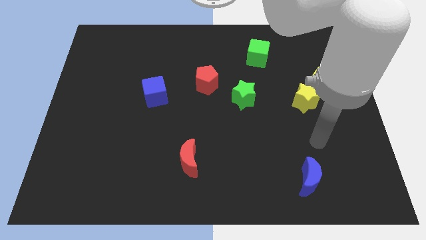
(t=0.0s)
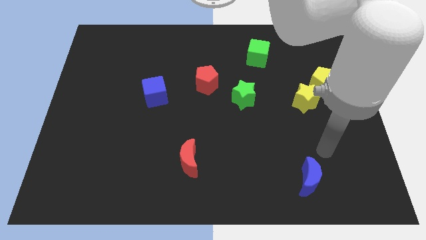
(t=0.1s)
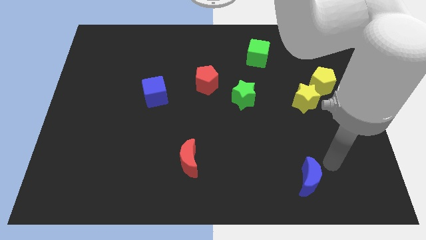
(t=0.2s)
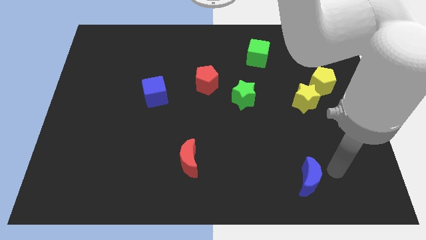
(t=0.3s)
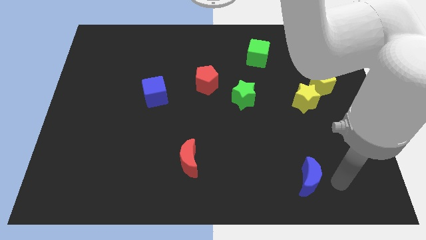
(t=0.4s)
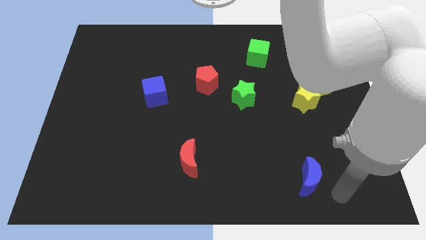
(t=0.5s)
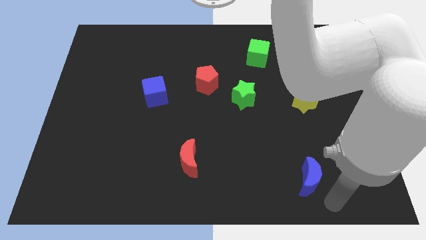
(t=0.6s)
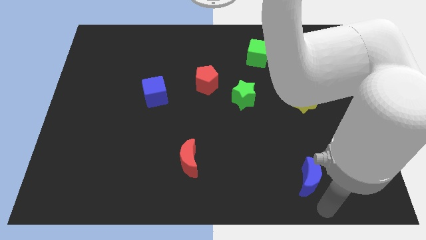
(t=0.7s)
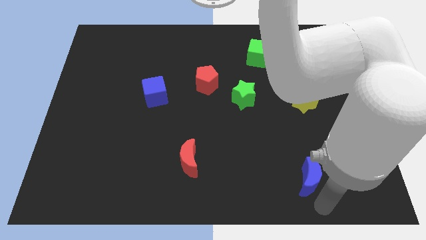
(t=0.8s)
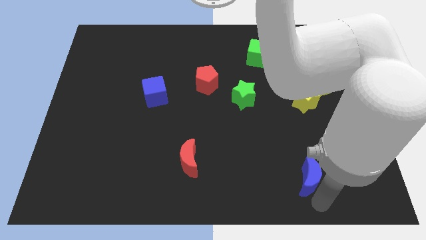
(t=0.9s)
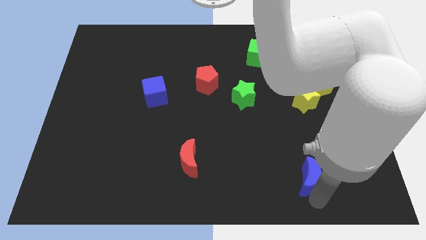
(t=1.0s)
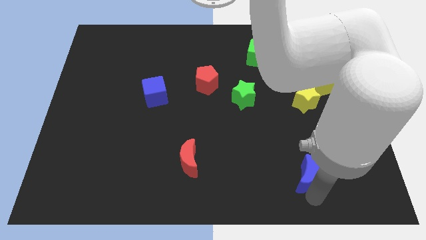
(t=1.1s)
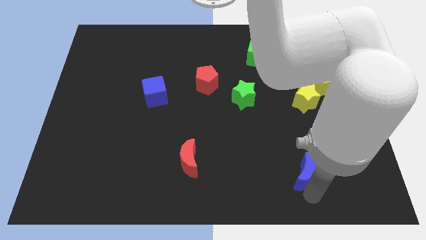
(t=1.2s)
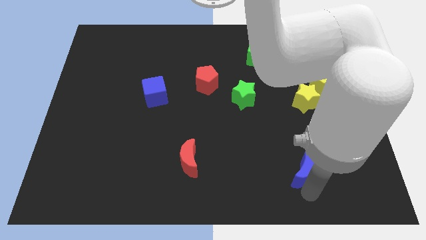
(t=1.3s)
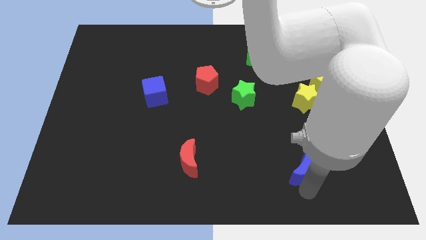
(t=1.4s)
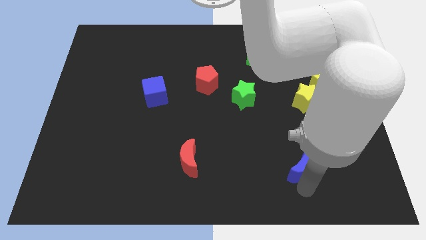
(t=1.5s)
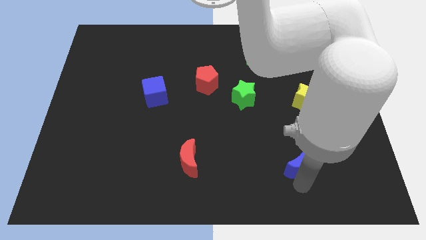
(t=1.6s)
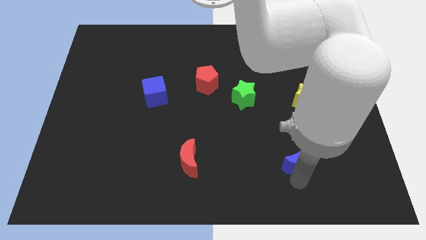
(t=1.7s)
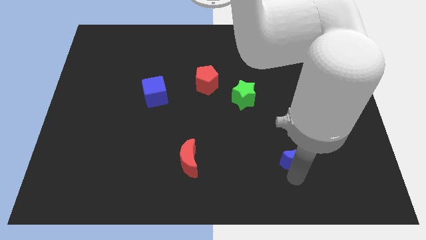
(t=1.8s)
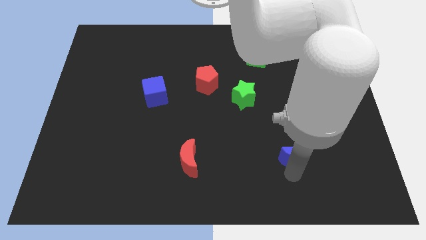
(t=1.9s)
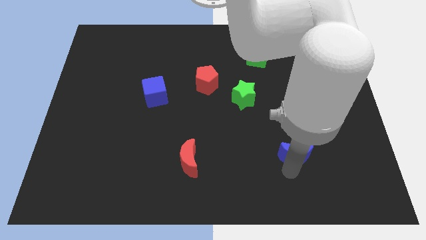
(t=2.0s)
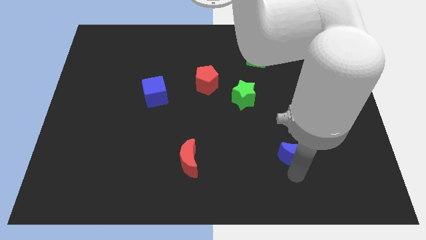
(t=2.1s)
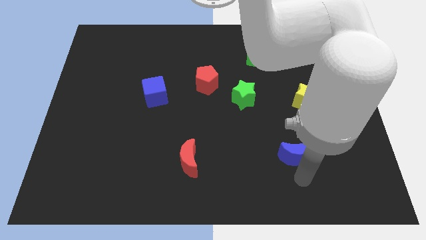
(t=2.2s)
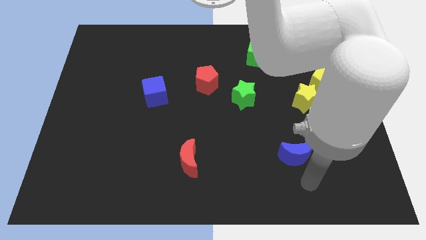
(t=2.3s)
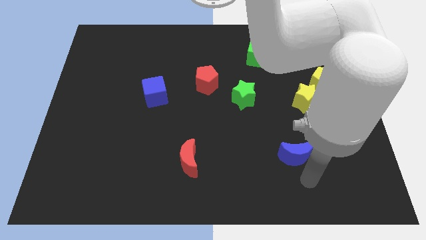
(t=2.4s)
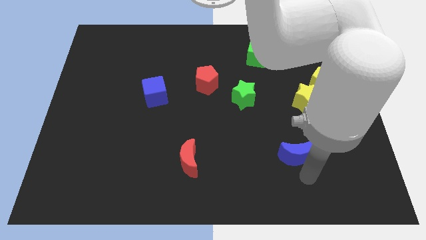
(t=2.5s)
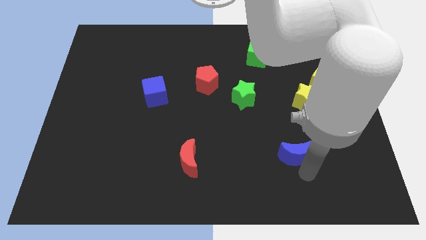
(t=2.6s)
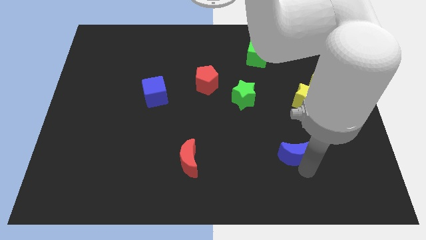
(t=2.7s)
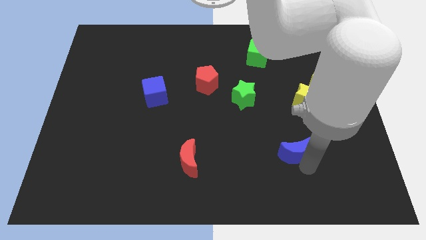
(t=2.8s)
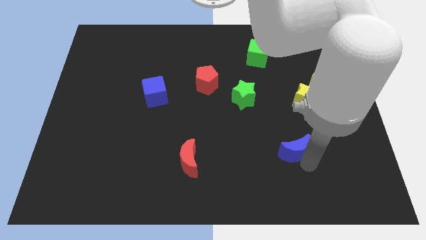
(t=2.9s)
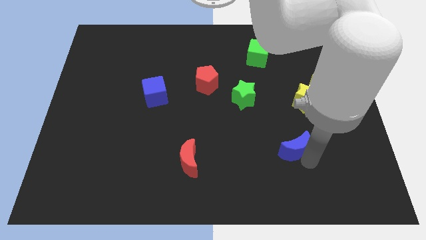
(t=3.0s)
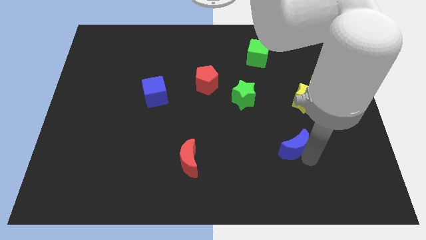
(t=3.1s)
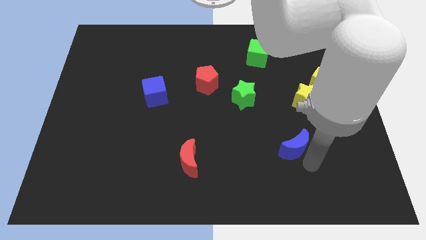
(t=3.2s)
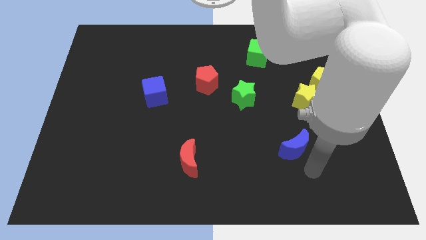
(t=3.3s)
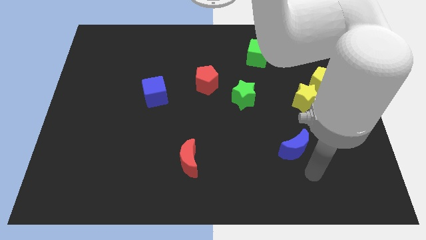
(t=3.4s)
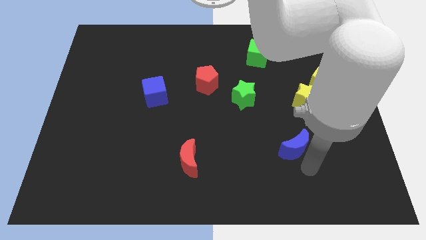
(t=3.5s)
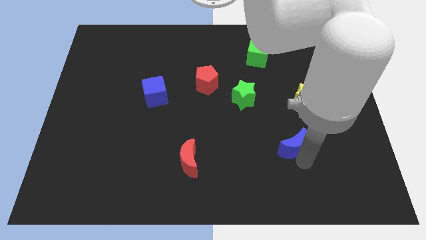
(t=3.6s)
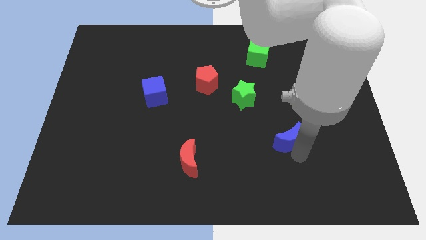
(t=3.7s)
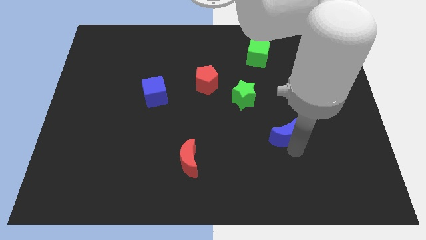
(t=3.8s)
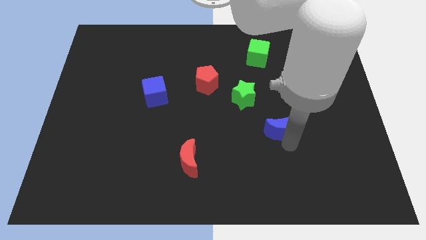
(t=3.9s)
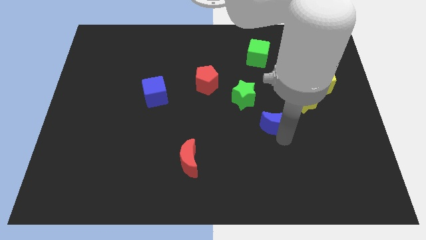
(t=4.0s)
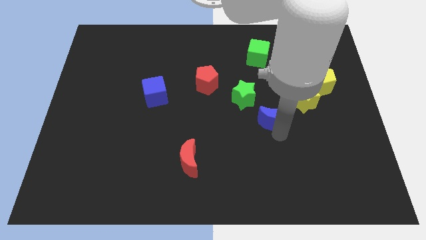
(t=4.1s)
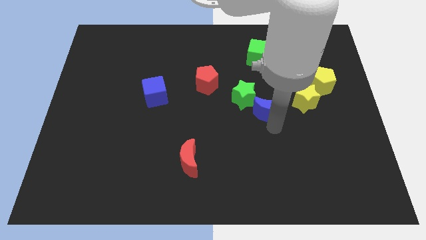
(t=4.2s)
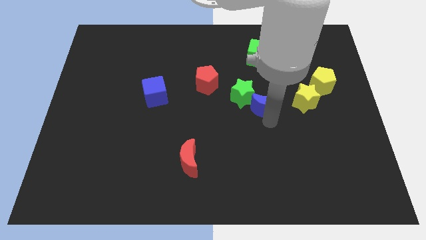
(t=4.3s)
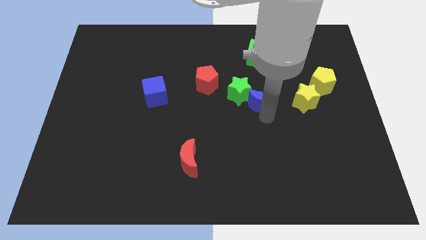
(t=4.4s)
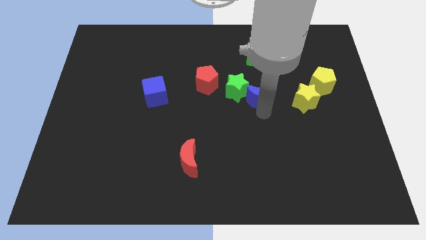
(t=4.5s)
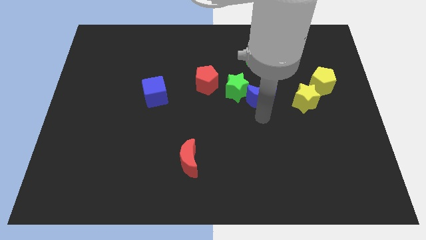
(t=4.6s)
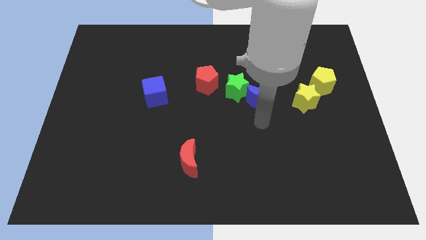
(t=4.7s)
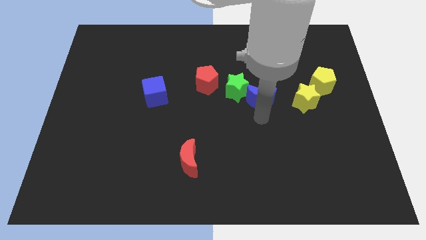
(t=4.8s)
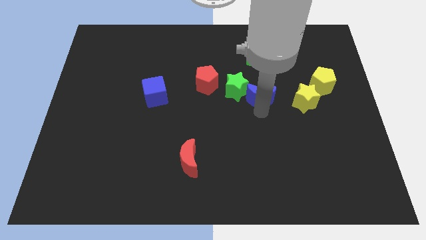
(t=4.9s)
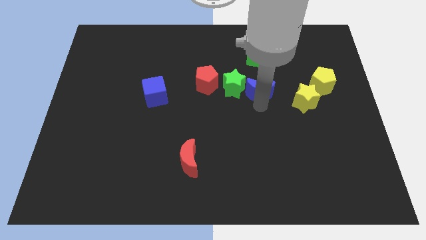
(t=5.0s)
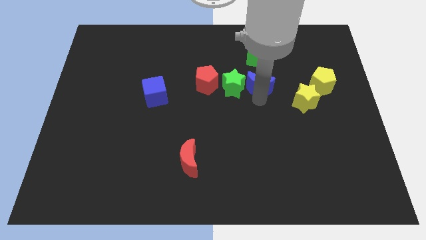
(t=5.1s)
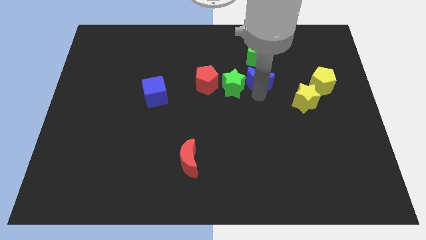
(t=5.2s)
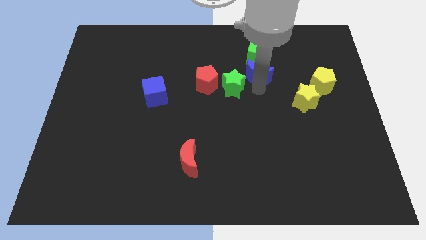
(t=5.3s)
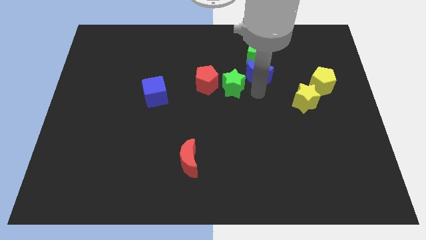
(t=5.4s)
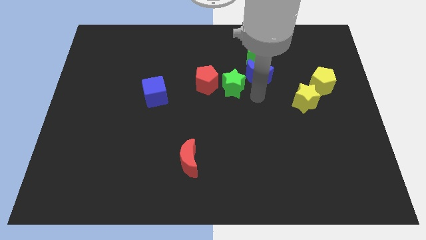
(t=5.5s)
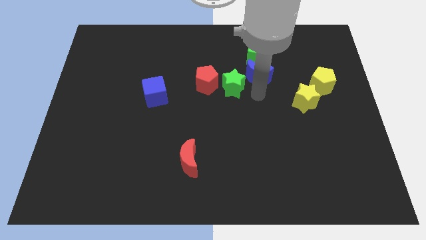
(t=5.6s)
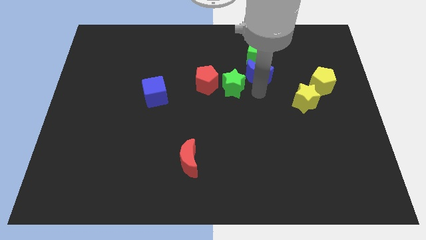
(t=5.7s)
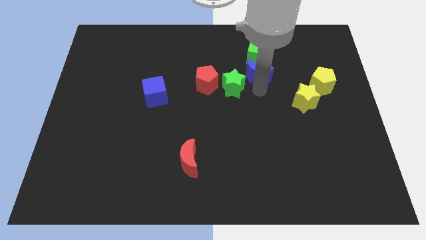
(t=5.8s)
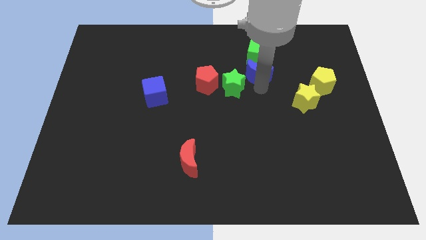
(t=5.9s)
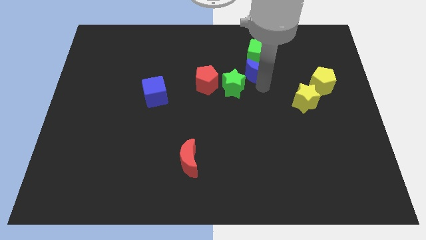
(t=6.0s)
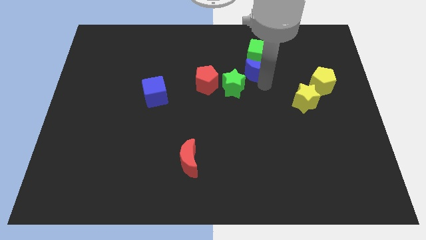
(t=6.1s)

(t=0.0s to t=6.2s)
put the blue moon towards the green cube

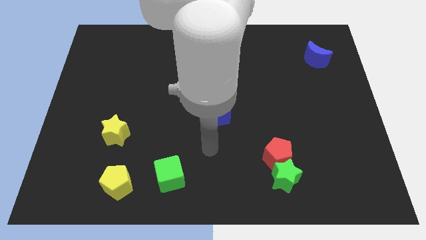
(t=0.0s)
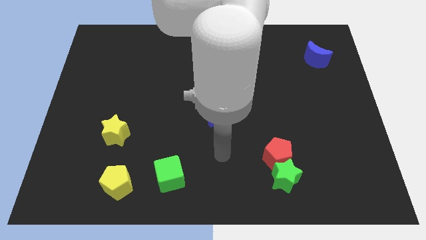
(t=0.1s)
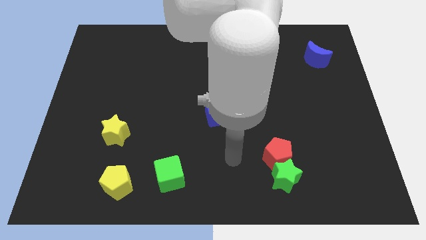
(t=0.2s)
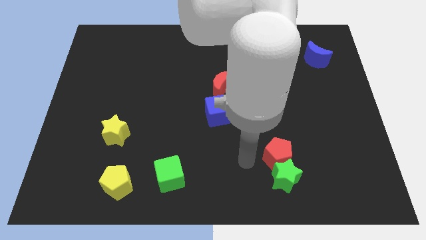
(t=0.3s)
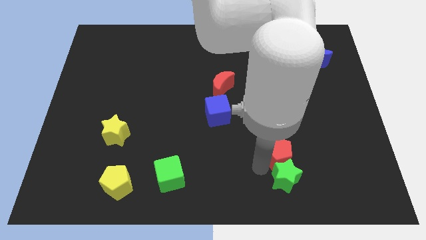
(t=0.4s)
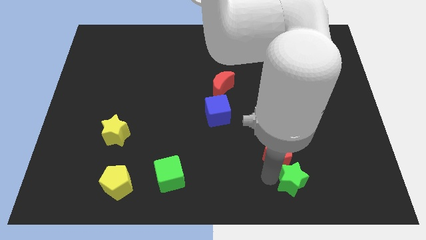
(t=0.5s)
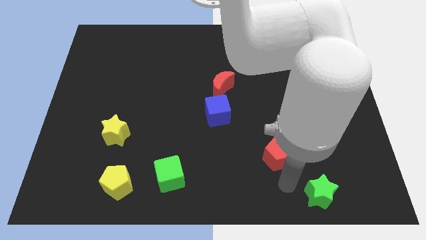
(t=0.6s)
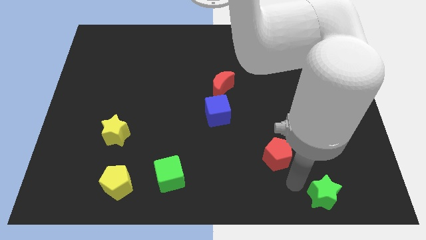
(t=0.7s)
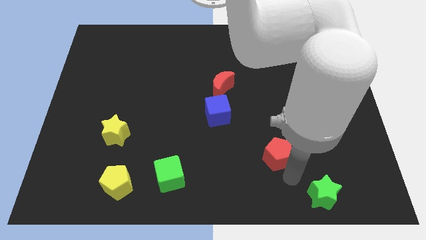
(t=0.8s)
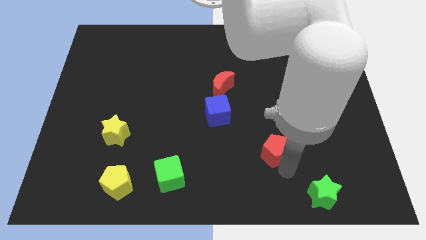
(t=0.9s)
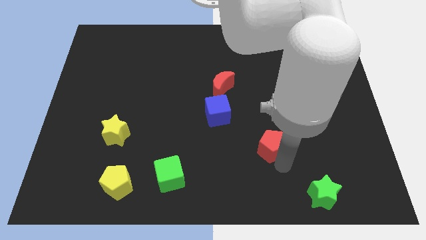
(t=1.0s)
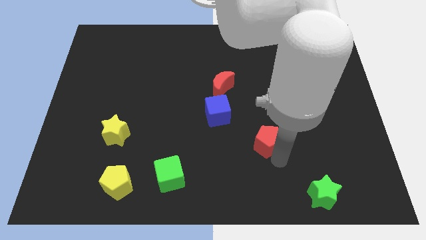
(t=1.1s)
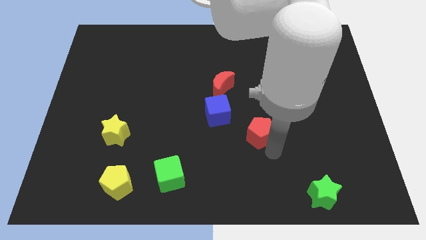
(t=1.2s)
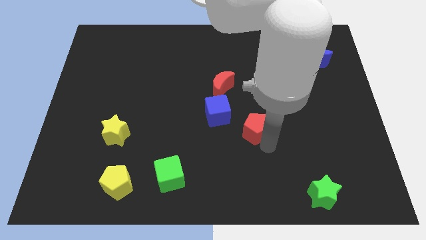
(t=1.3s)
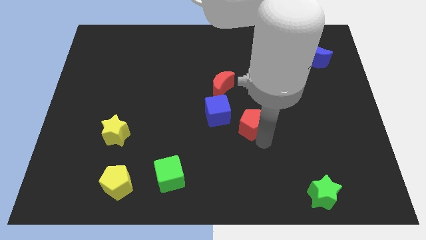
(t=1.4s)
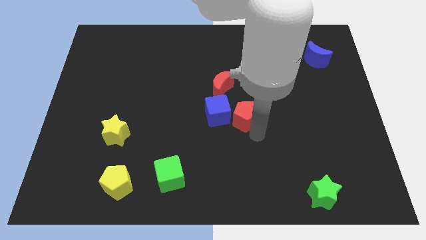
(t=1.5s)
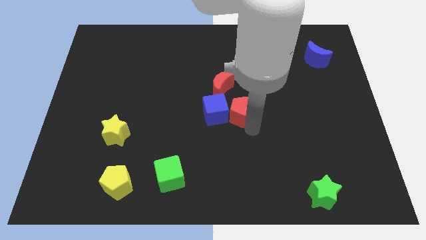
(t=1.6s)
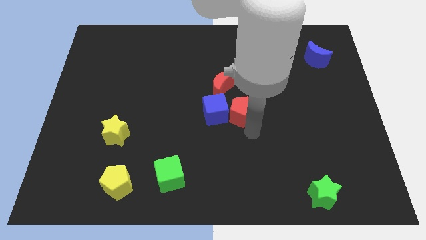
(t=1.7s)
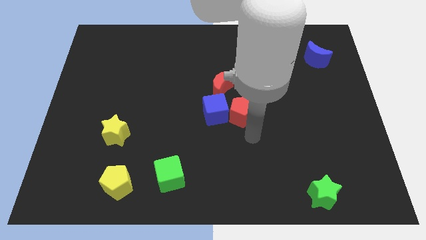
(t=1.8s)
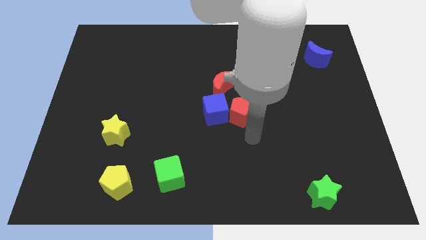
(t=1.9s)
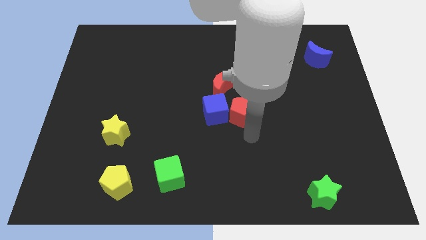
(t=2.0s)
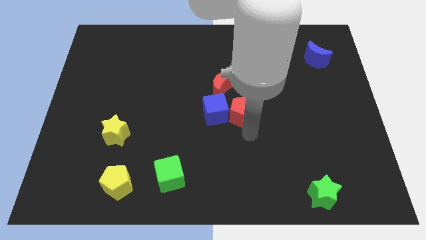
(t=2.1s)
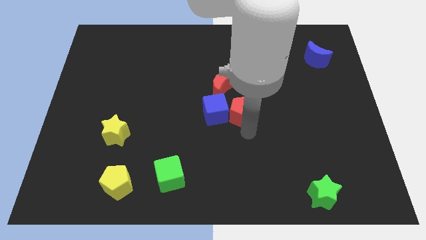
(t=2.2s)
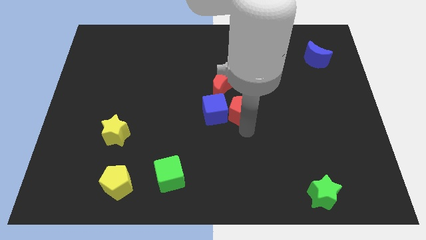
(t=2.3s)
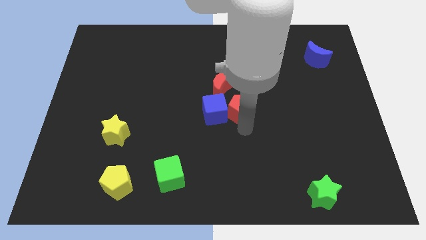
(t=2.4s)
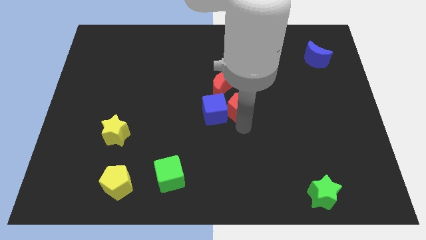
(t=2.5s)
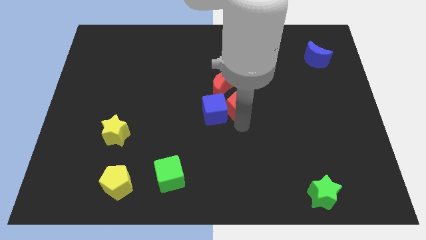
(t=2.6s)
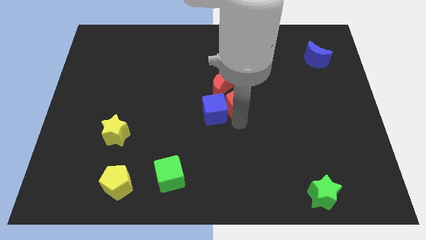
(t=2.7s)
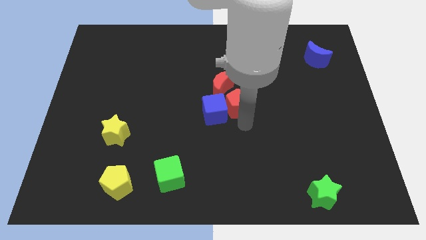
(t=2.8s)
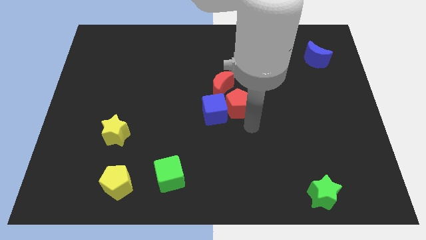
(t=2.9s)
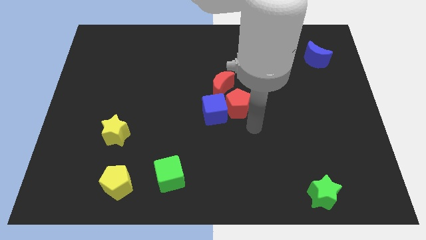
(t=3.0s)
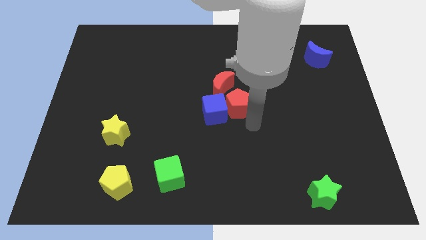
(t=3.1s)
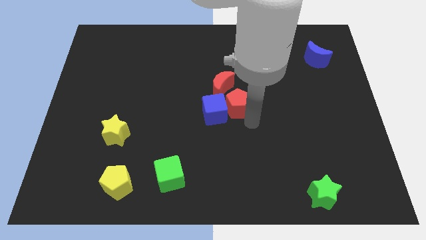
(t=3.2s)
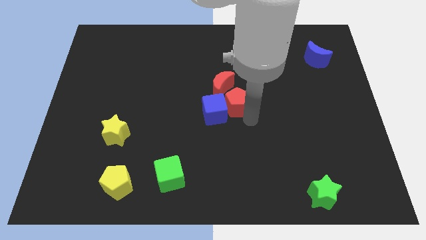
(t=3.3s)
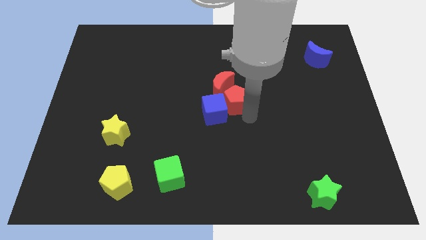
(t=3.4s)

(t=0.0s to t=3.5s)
put the red pentagon to the red moon
